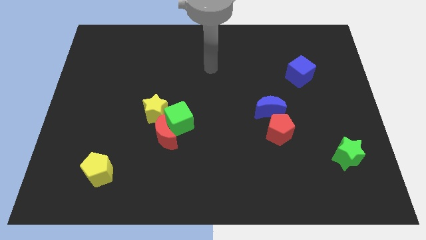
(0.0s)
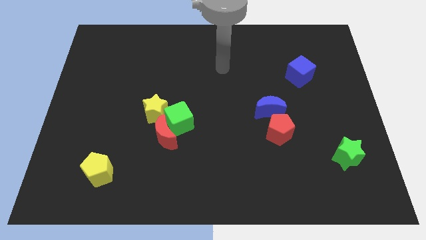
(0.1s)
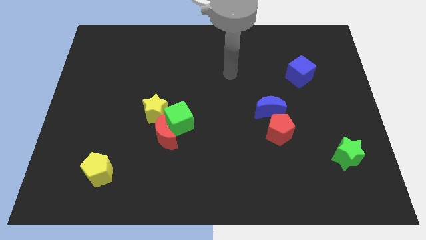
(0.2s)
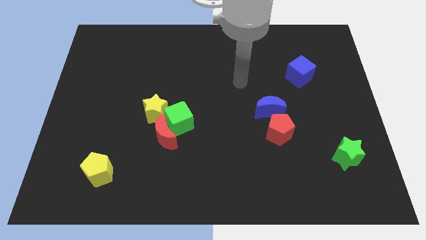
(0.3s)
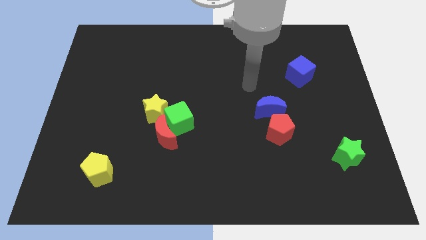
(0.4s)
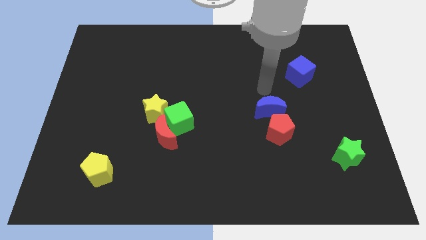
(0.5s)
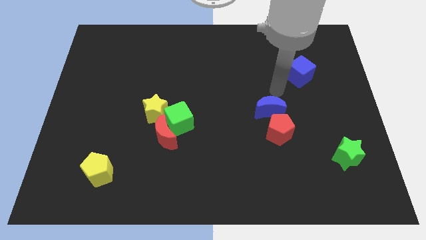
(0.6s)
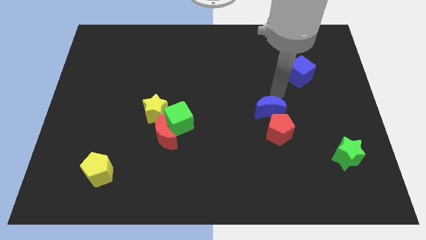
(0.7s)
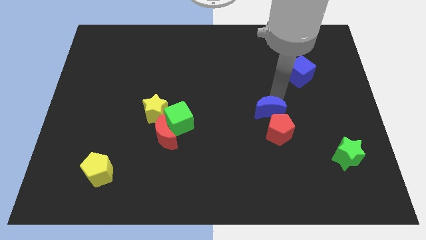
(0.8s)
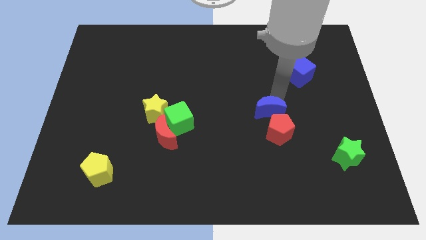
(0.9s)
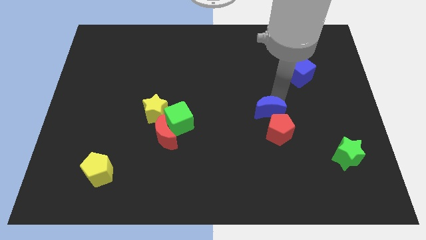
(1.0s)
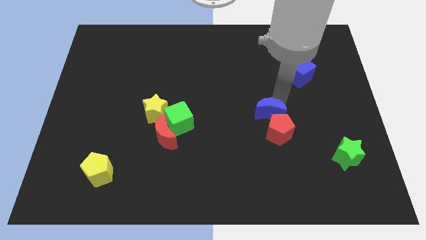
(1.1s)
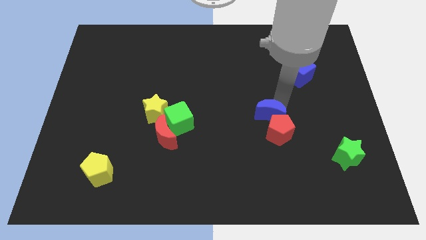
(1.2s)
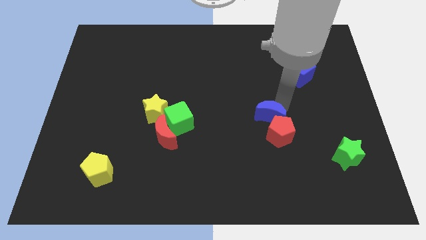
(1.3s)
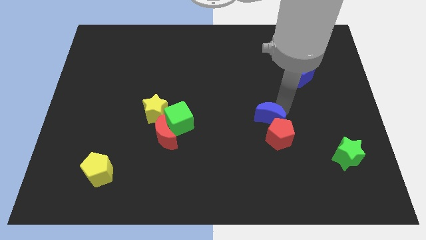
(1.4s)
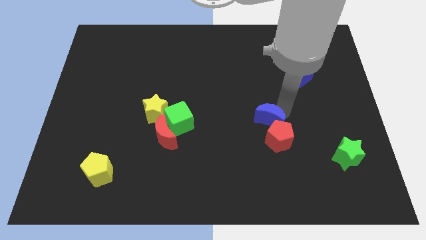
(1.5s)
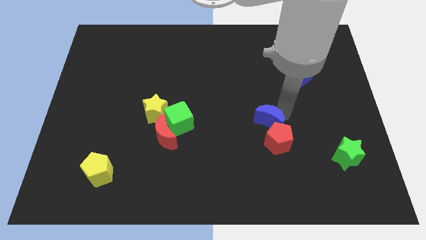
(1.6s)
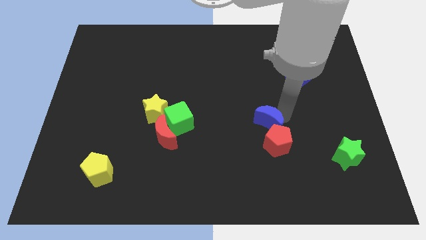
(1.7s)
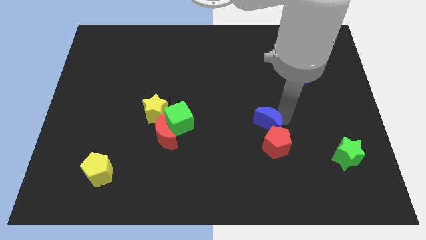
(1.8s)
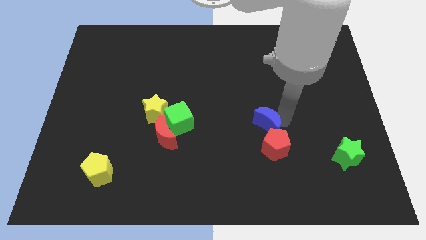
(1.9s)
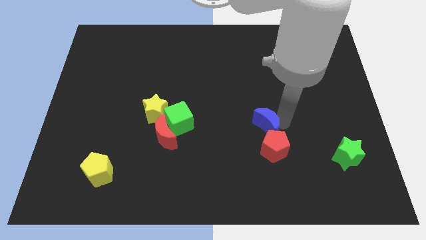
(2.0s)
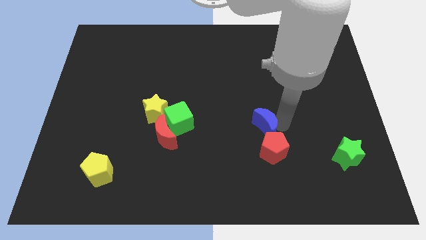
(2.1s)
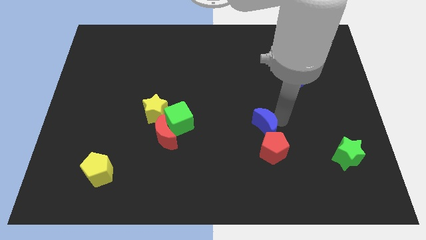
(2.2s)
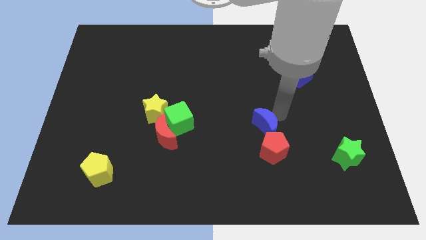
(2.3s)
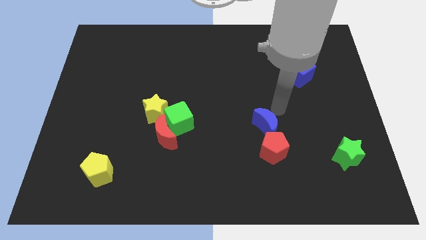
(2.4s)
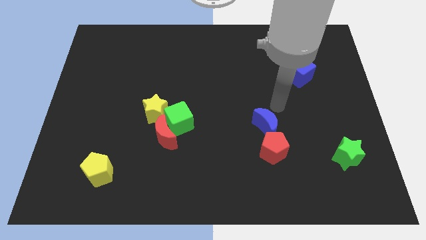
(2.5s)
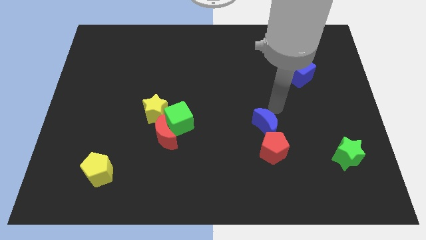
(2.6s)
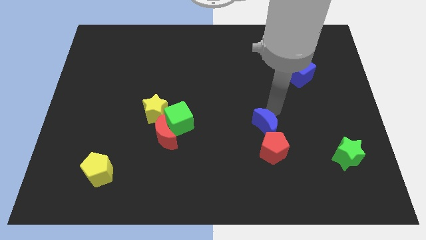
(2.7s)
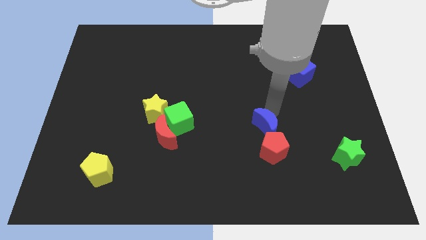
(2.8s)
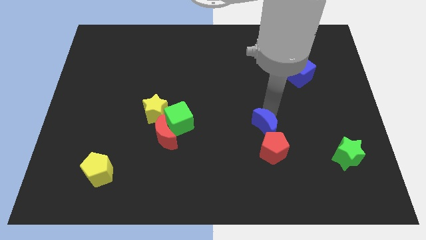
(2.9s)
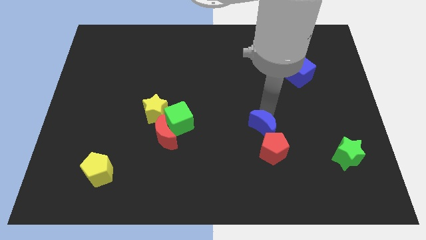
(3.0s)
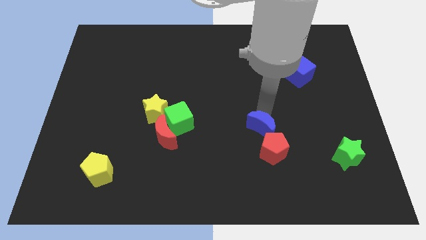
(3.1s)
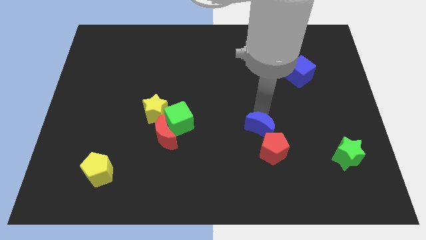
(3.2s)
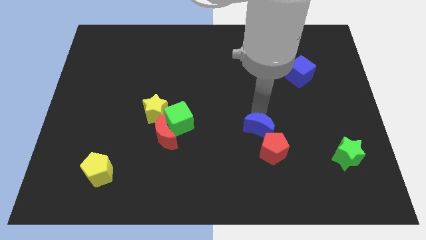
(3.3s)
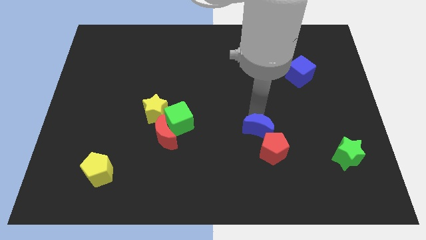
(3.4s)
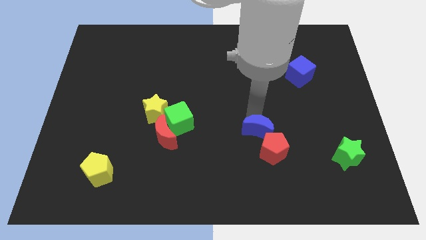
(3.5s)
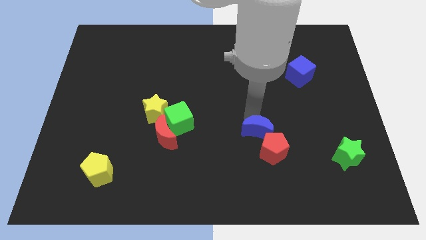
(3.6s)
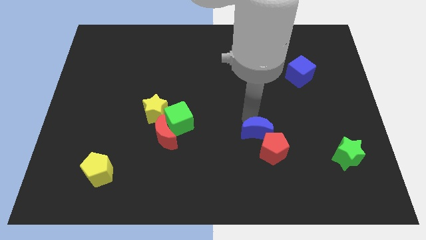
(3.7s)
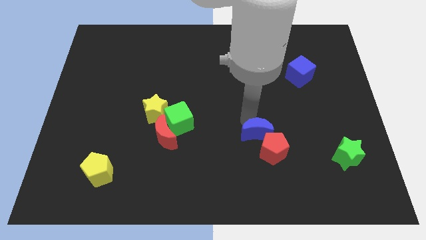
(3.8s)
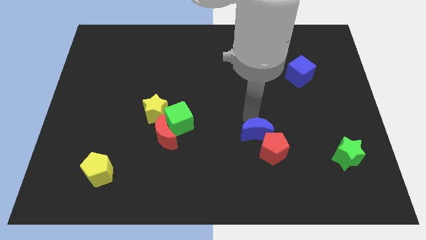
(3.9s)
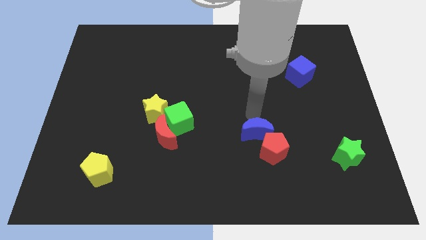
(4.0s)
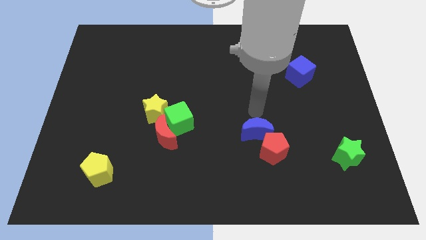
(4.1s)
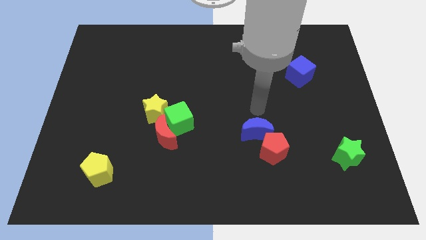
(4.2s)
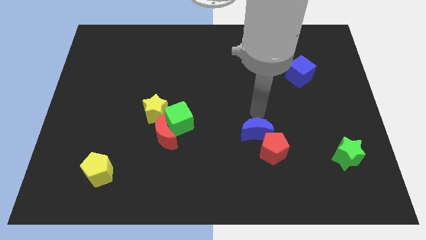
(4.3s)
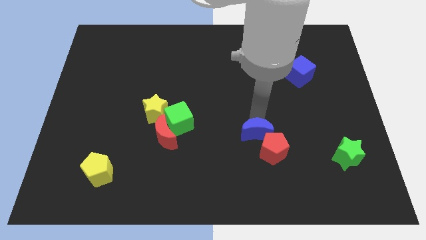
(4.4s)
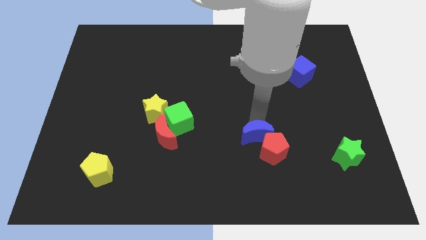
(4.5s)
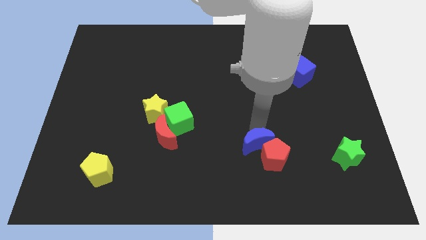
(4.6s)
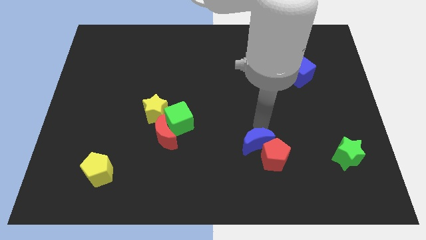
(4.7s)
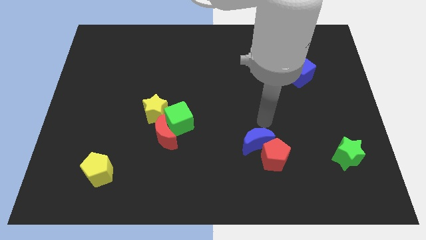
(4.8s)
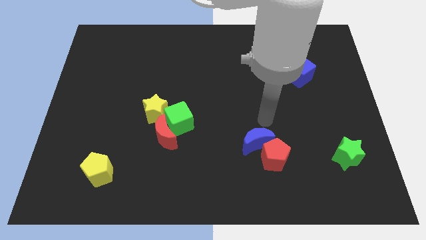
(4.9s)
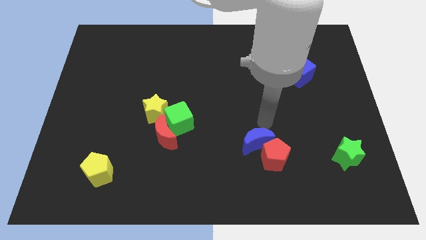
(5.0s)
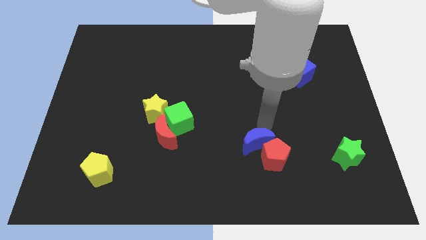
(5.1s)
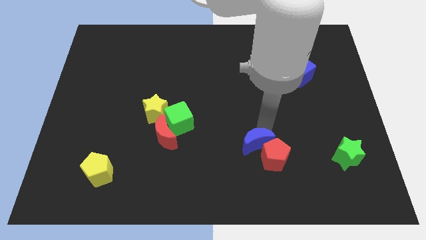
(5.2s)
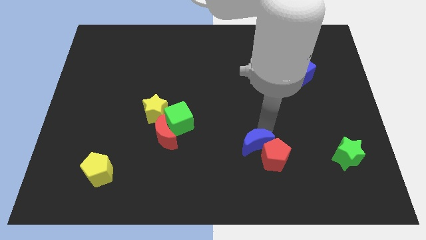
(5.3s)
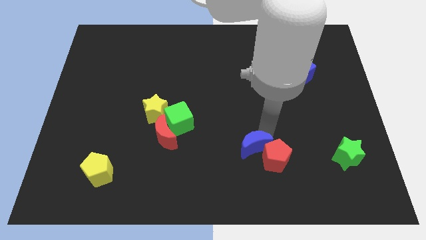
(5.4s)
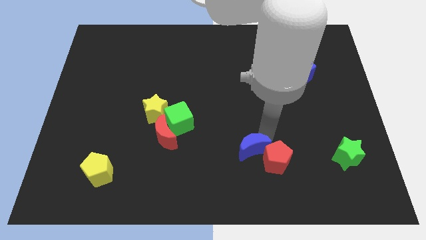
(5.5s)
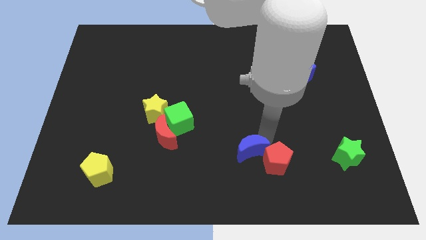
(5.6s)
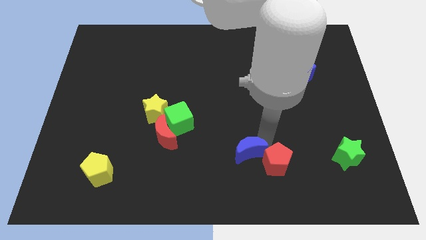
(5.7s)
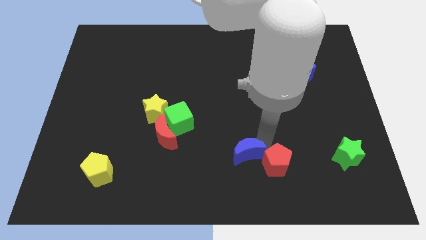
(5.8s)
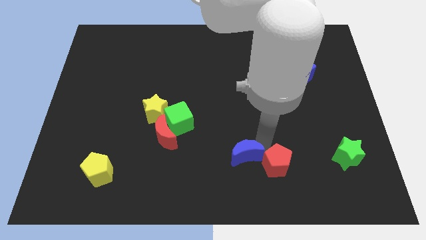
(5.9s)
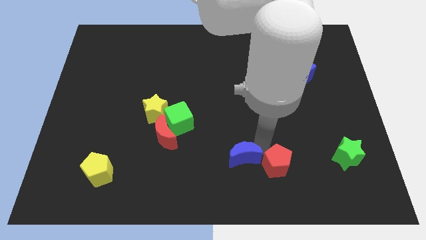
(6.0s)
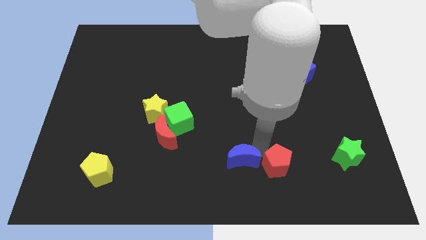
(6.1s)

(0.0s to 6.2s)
move the blue moon to the bottom
